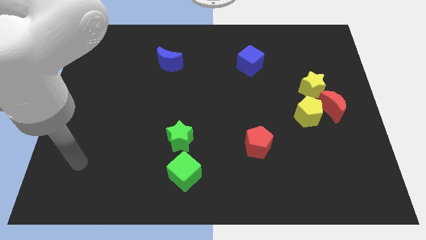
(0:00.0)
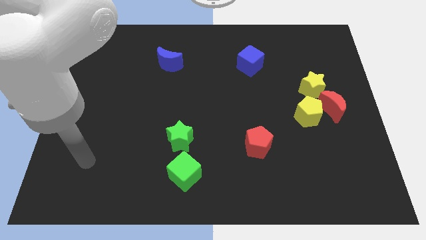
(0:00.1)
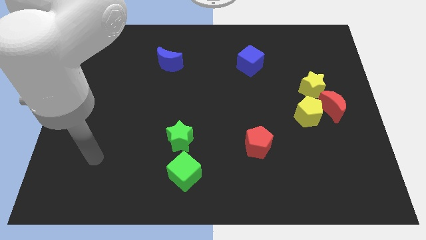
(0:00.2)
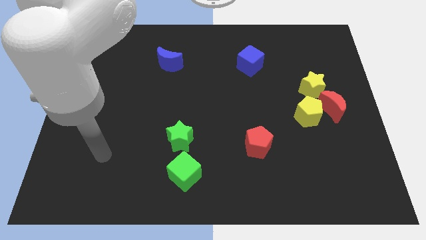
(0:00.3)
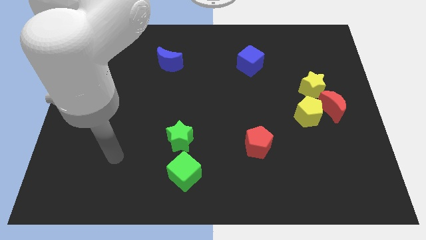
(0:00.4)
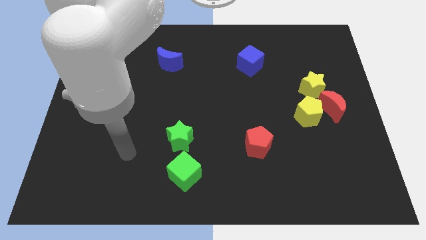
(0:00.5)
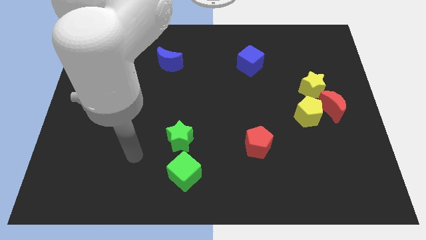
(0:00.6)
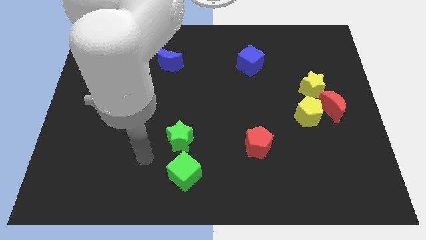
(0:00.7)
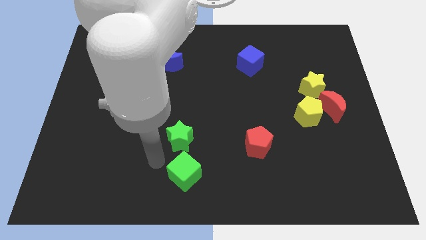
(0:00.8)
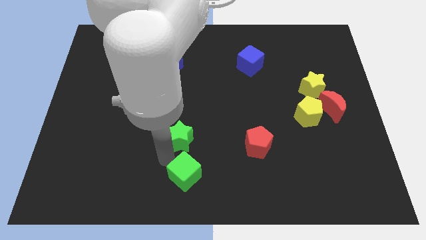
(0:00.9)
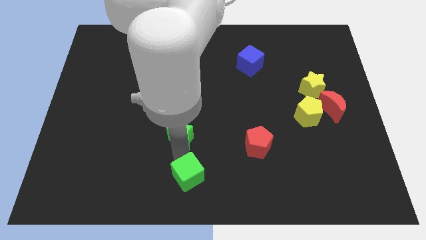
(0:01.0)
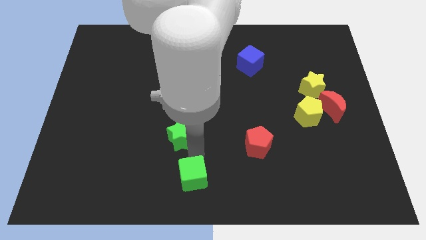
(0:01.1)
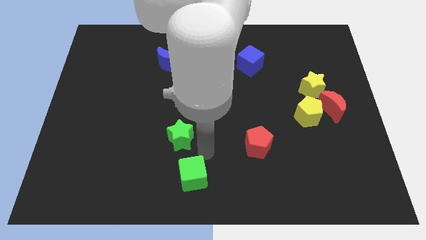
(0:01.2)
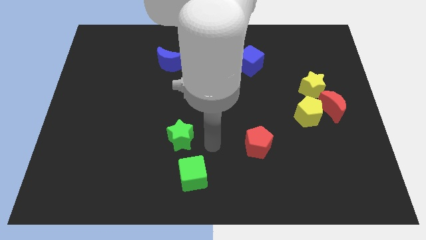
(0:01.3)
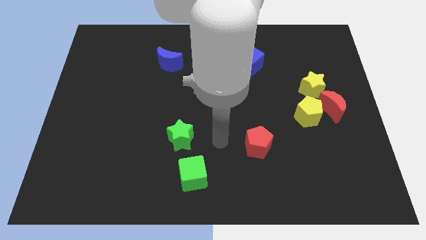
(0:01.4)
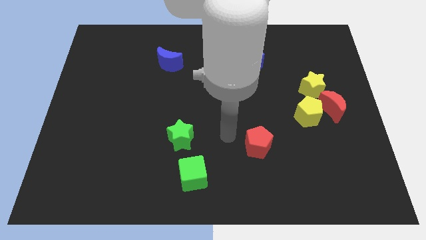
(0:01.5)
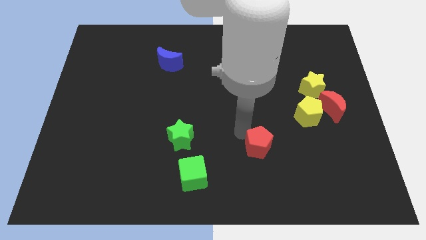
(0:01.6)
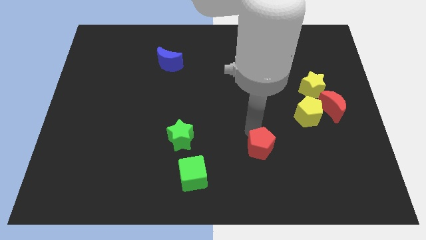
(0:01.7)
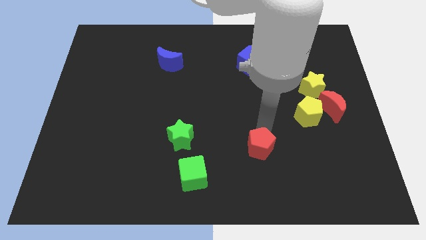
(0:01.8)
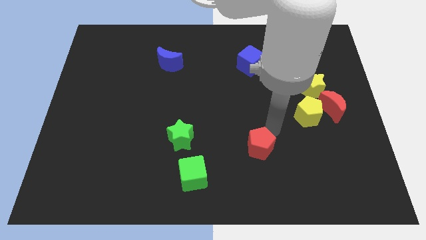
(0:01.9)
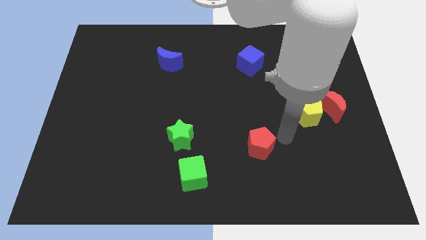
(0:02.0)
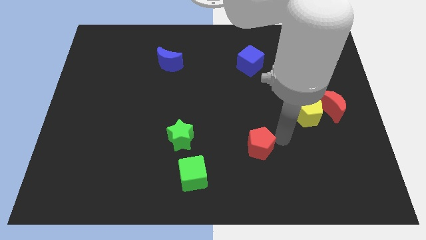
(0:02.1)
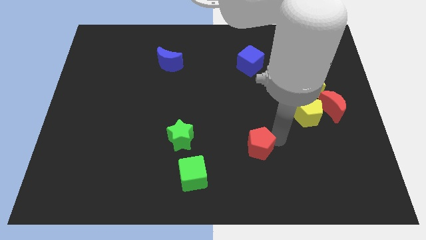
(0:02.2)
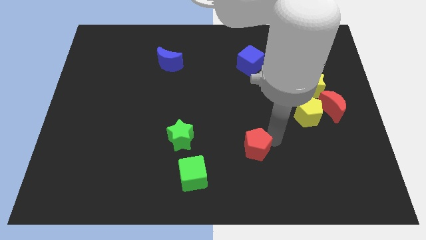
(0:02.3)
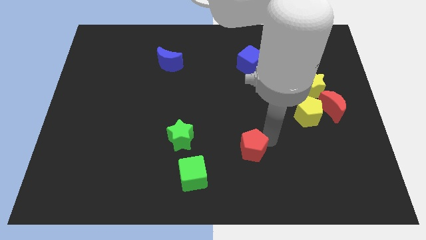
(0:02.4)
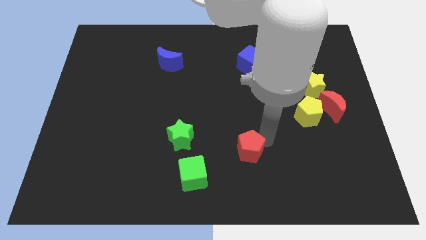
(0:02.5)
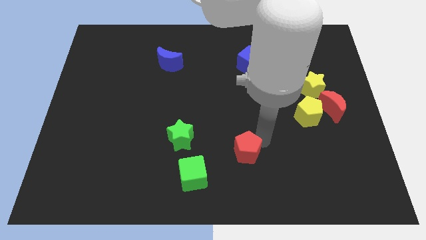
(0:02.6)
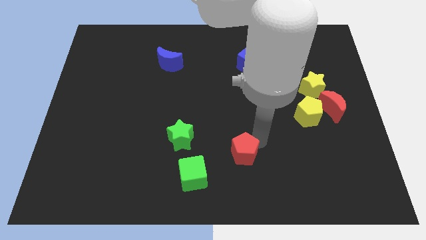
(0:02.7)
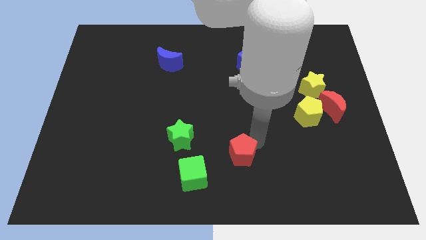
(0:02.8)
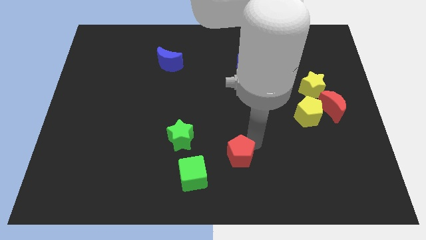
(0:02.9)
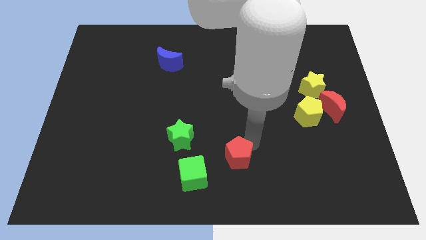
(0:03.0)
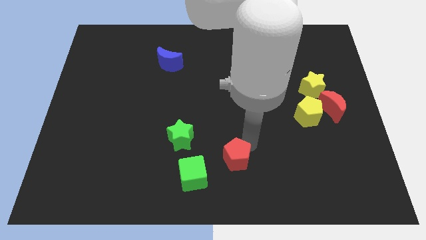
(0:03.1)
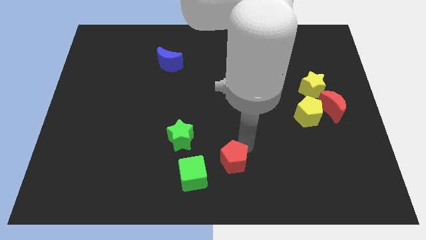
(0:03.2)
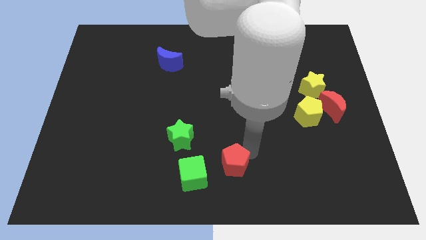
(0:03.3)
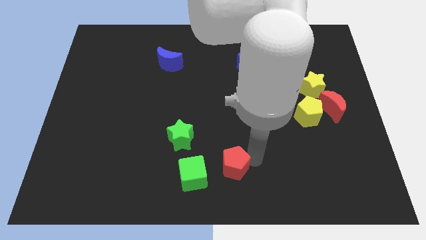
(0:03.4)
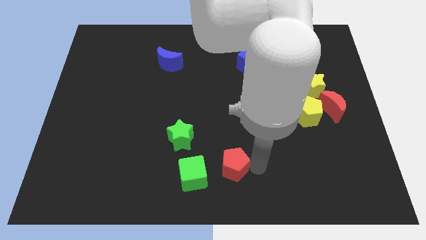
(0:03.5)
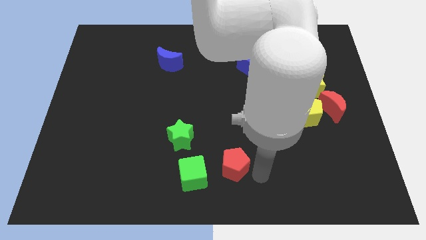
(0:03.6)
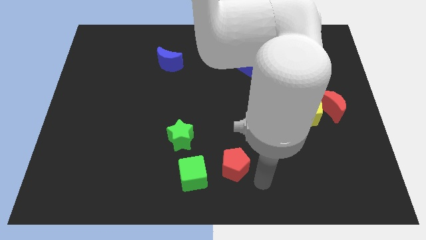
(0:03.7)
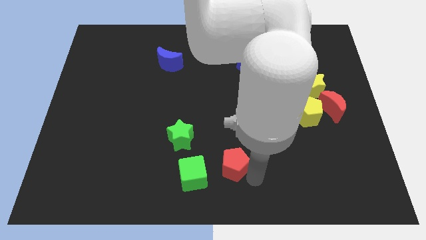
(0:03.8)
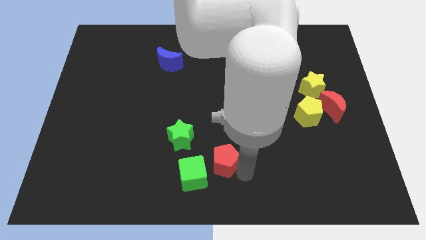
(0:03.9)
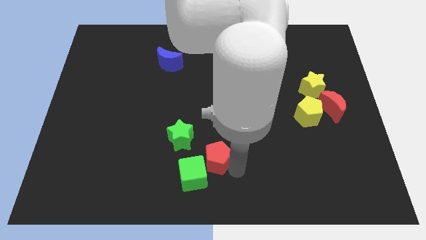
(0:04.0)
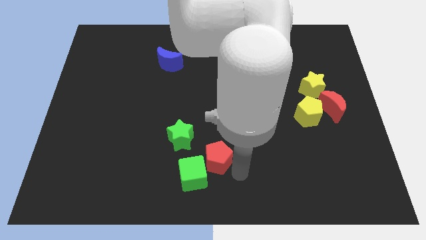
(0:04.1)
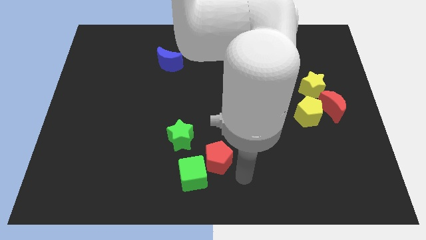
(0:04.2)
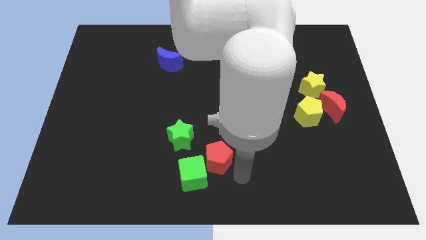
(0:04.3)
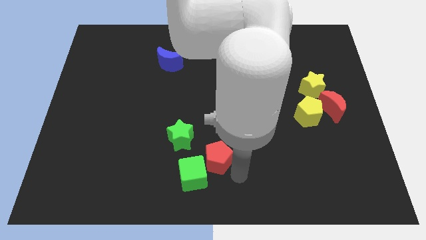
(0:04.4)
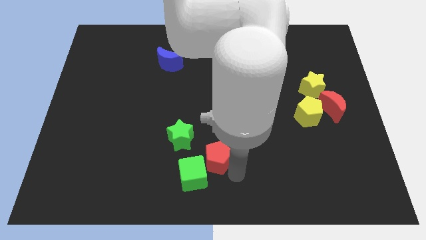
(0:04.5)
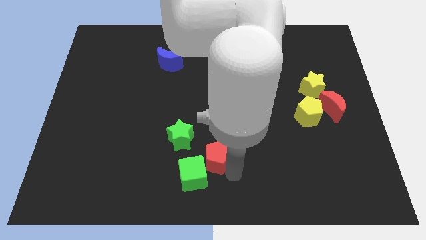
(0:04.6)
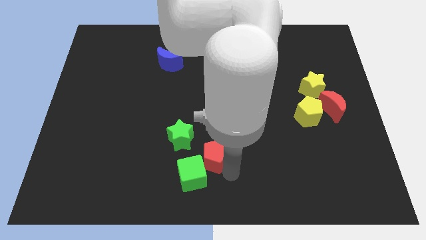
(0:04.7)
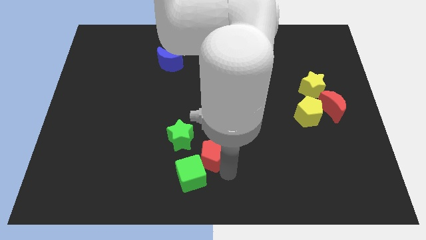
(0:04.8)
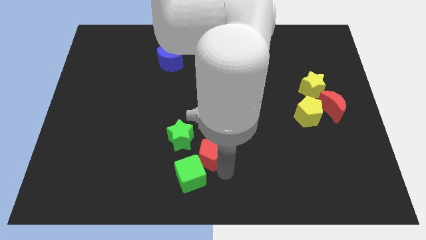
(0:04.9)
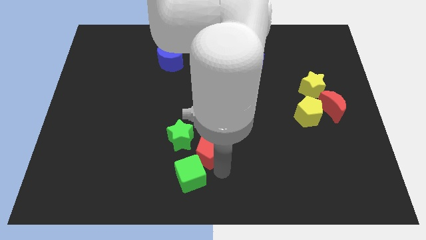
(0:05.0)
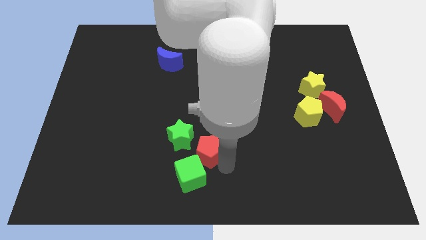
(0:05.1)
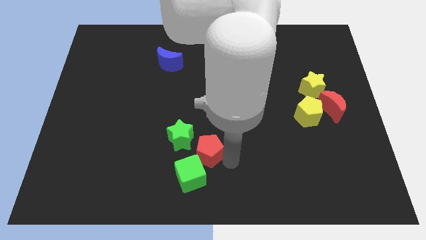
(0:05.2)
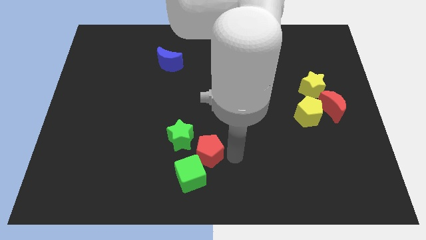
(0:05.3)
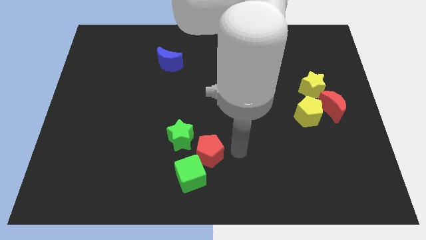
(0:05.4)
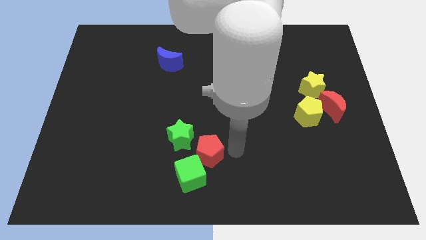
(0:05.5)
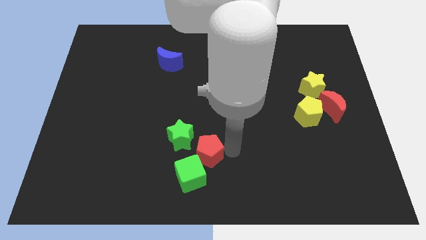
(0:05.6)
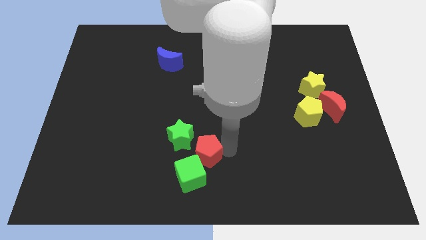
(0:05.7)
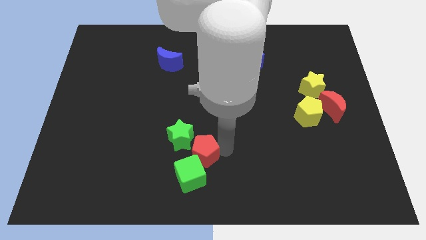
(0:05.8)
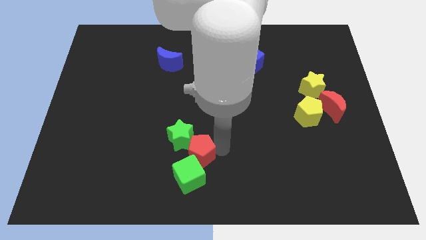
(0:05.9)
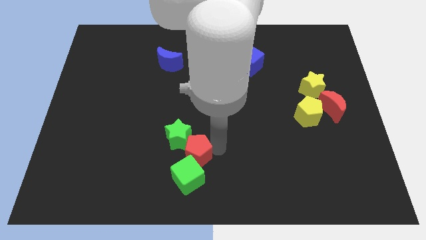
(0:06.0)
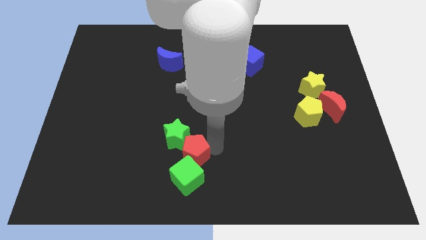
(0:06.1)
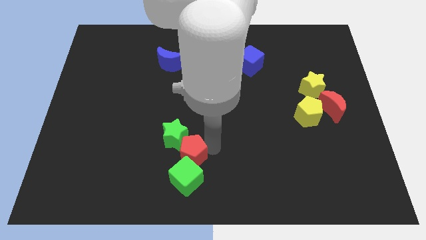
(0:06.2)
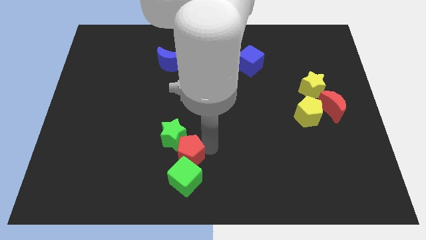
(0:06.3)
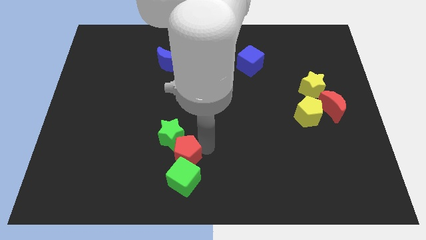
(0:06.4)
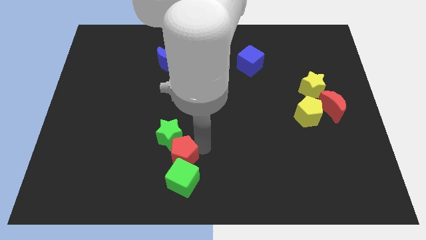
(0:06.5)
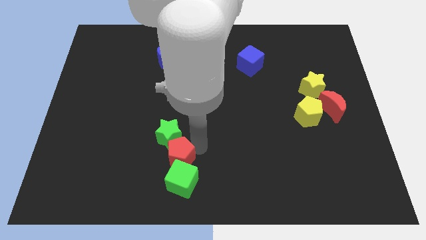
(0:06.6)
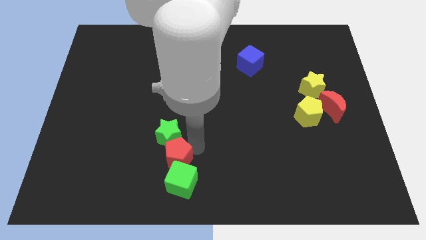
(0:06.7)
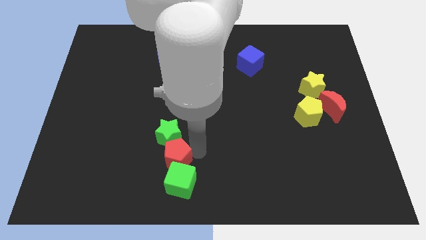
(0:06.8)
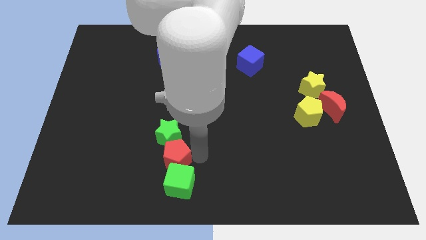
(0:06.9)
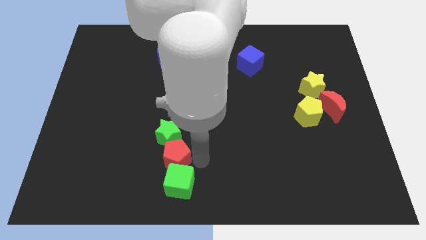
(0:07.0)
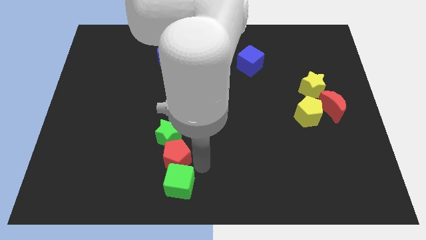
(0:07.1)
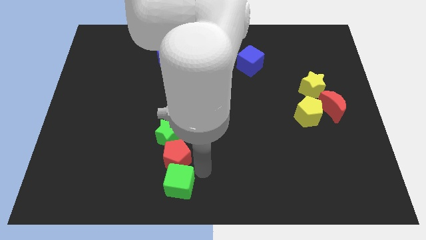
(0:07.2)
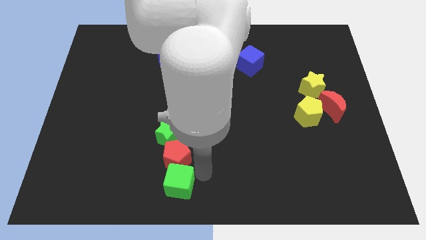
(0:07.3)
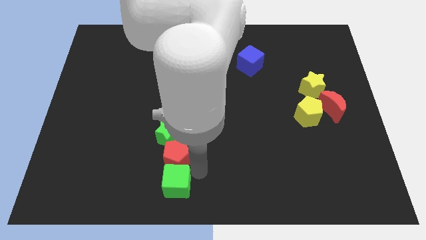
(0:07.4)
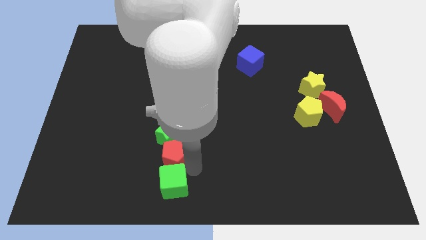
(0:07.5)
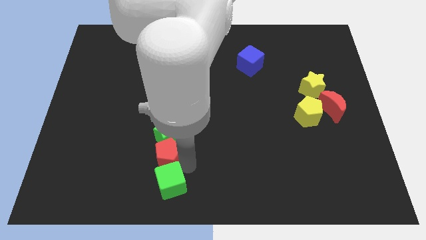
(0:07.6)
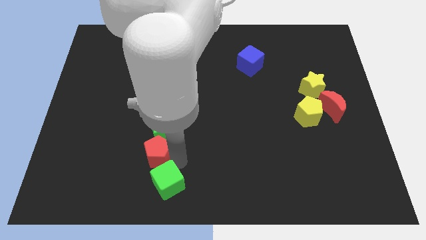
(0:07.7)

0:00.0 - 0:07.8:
slide the red pentagon left

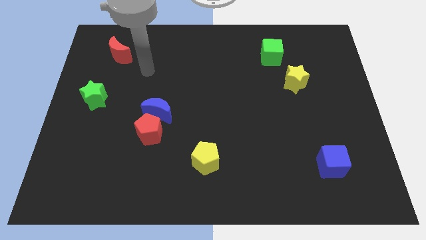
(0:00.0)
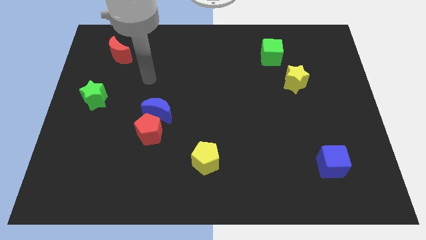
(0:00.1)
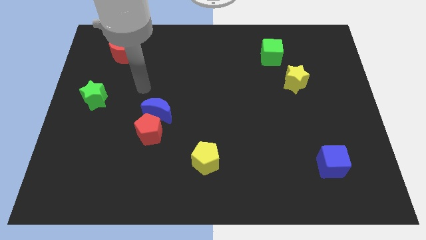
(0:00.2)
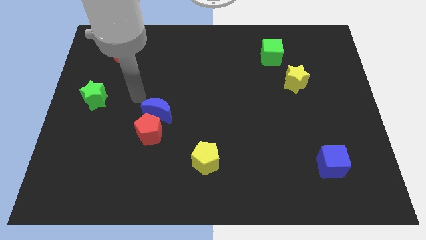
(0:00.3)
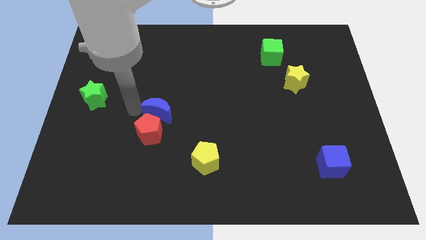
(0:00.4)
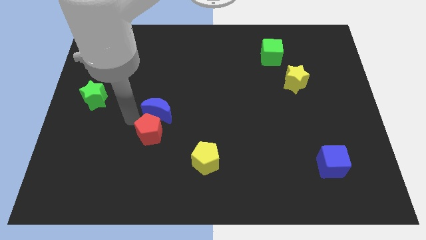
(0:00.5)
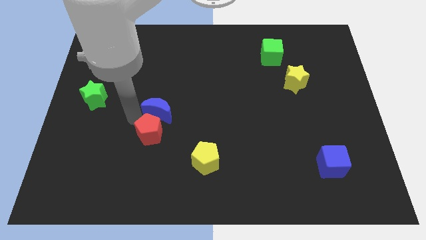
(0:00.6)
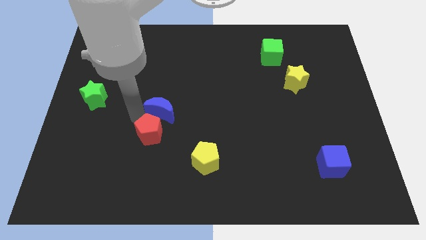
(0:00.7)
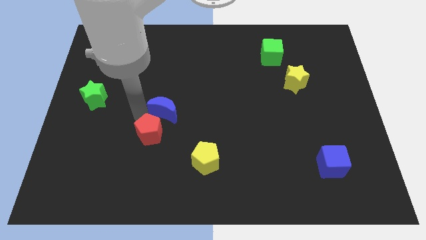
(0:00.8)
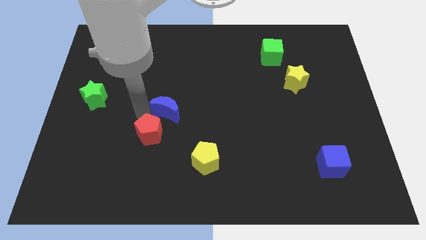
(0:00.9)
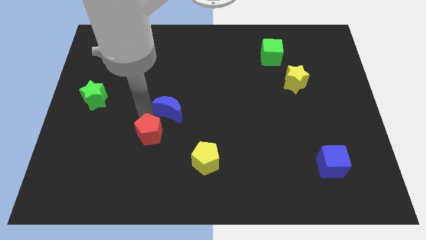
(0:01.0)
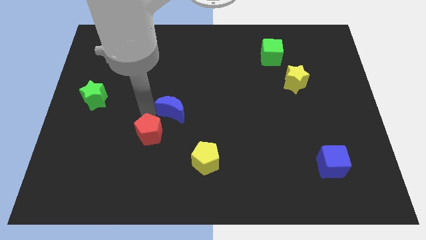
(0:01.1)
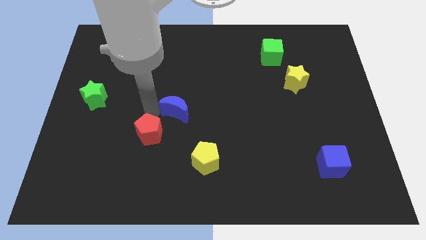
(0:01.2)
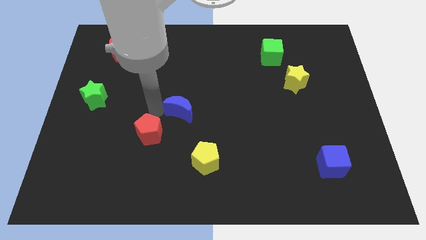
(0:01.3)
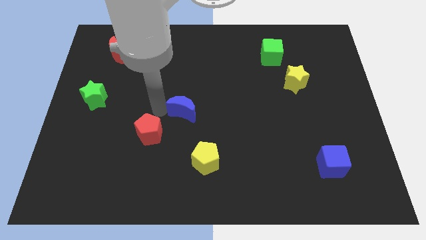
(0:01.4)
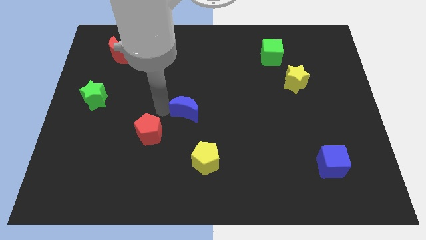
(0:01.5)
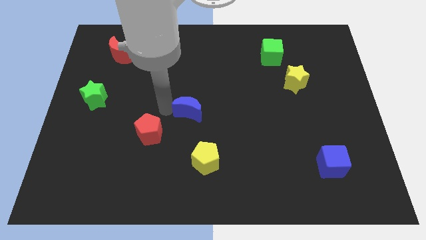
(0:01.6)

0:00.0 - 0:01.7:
slide the blue moon right a little
